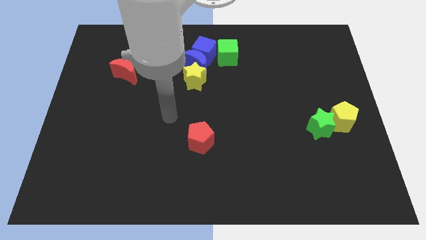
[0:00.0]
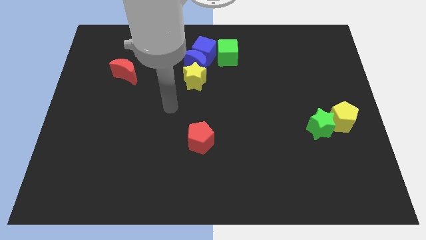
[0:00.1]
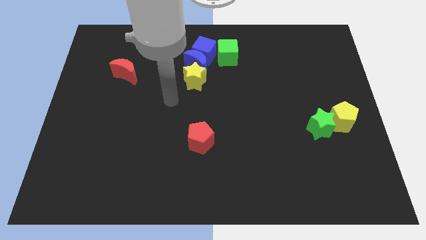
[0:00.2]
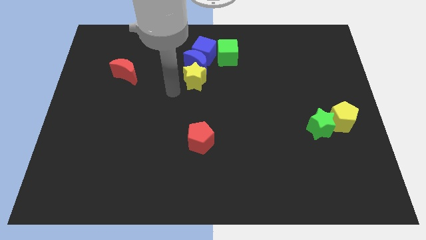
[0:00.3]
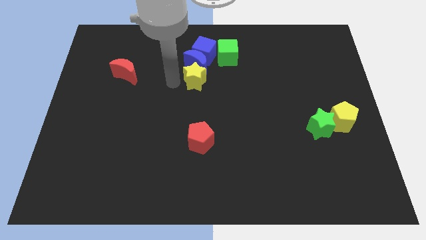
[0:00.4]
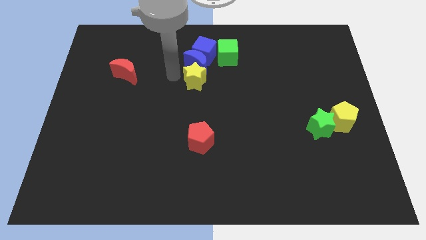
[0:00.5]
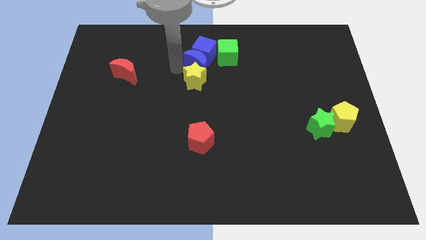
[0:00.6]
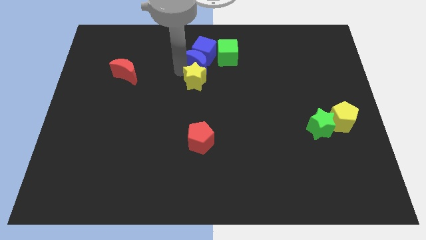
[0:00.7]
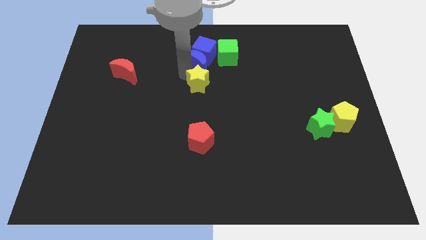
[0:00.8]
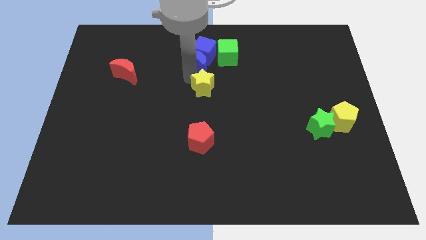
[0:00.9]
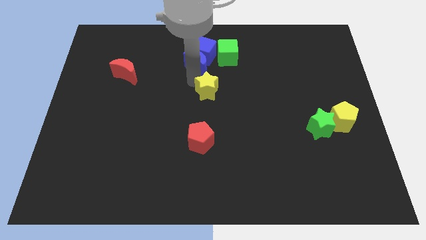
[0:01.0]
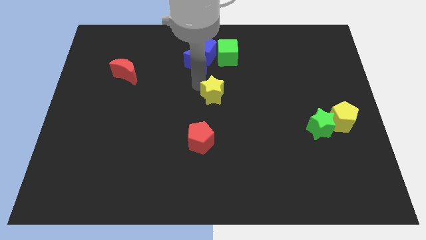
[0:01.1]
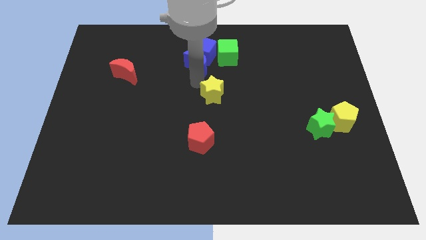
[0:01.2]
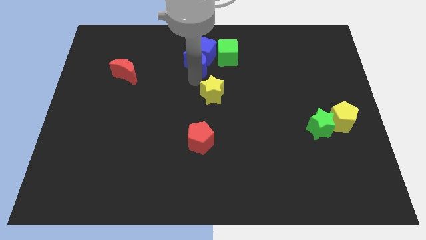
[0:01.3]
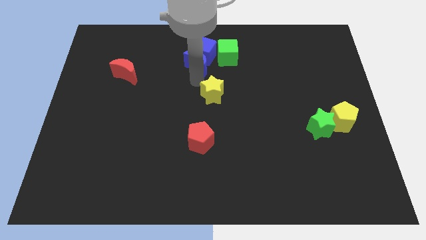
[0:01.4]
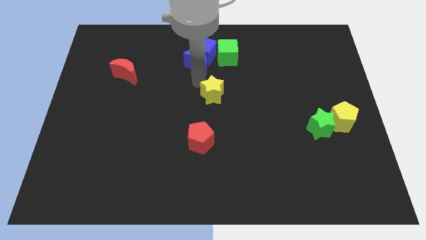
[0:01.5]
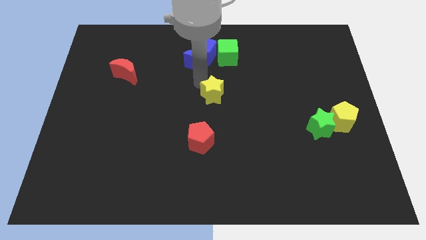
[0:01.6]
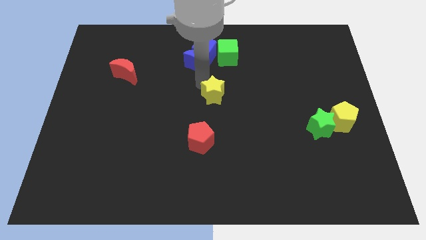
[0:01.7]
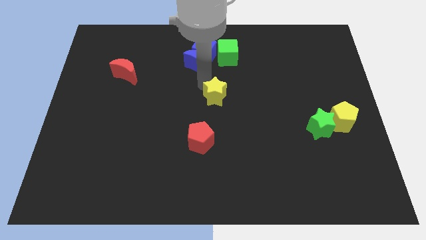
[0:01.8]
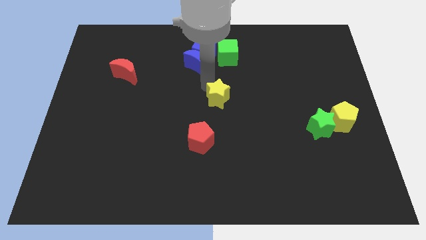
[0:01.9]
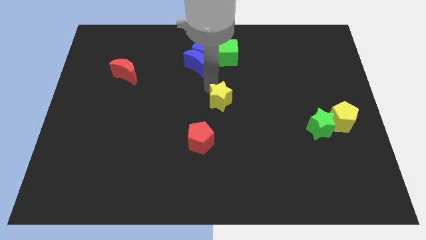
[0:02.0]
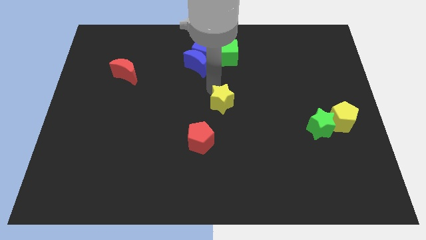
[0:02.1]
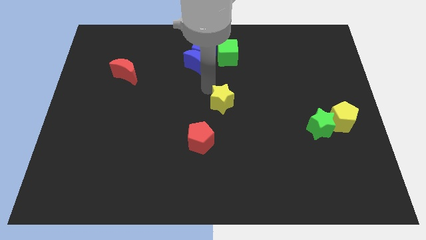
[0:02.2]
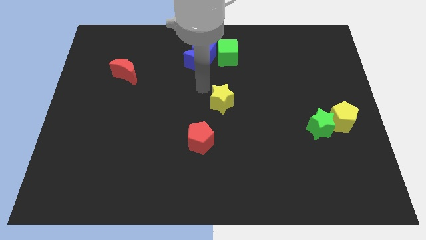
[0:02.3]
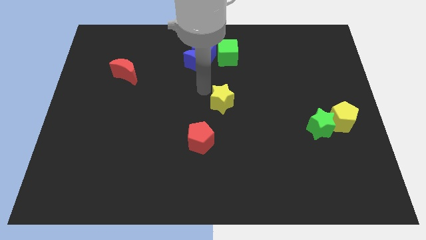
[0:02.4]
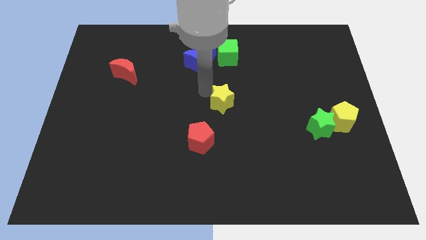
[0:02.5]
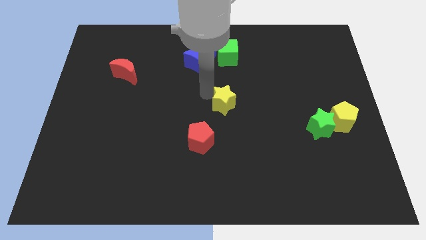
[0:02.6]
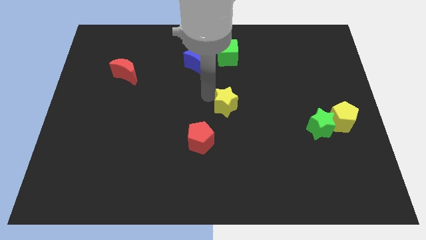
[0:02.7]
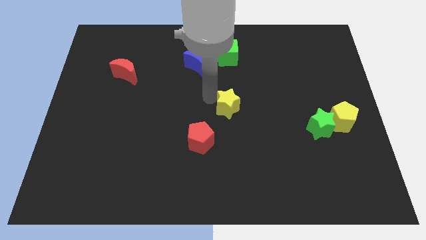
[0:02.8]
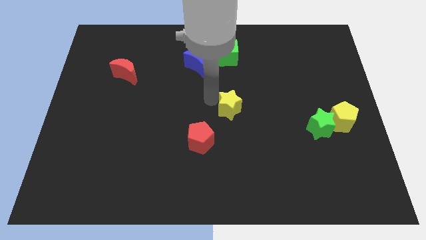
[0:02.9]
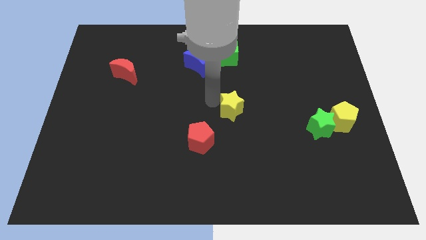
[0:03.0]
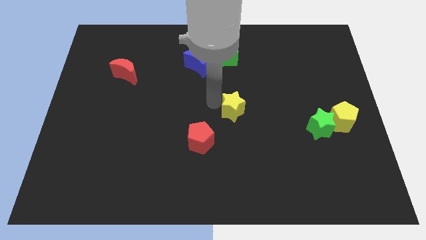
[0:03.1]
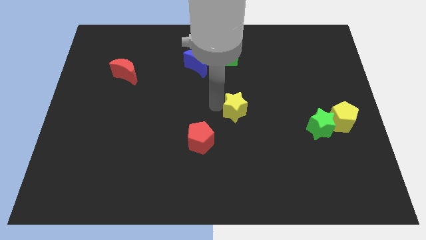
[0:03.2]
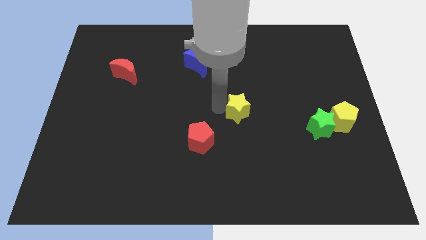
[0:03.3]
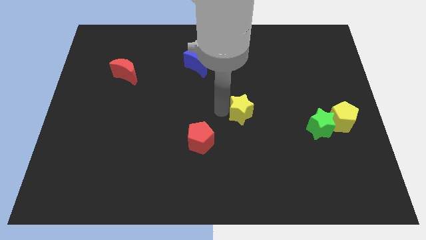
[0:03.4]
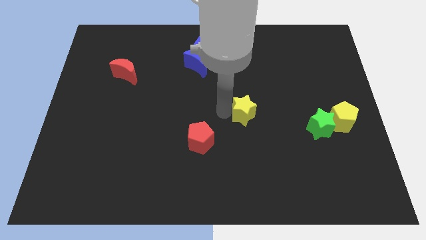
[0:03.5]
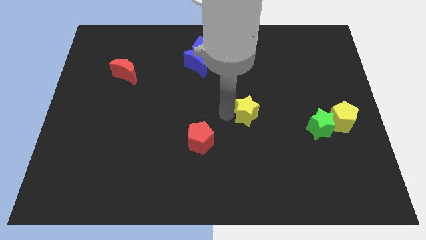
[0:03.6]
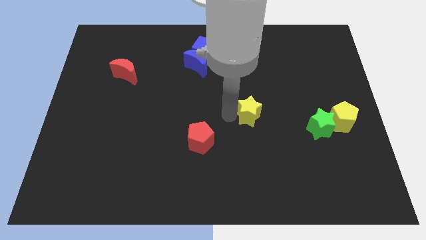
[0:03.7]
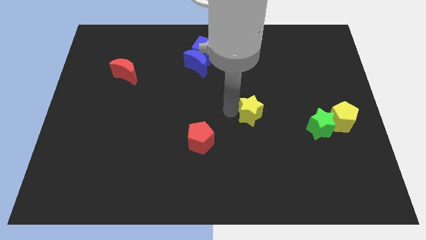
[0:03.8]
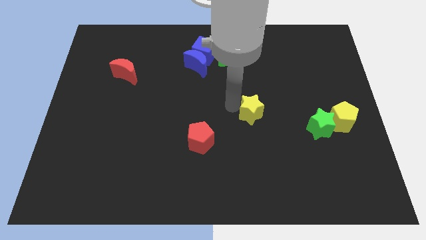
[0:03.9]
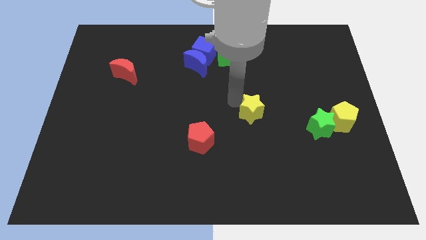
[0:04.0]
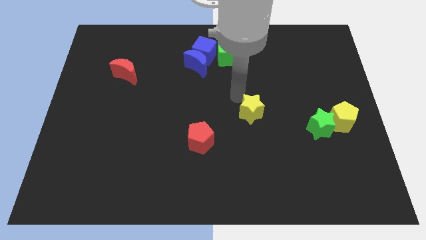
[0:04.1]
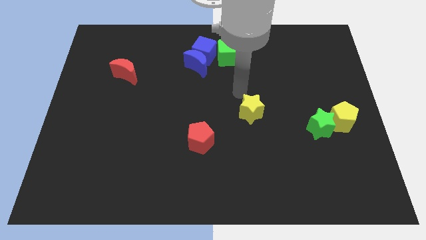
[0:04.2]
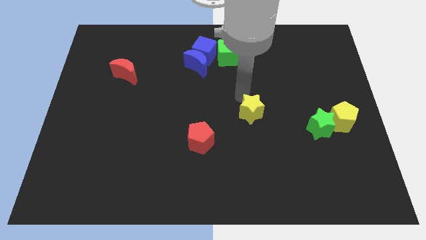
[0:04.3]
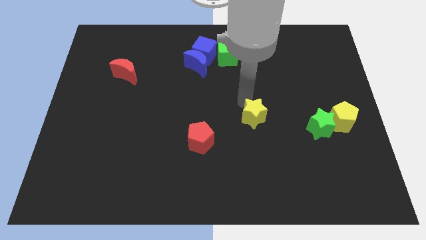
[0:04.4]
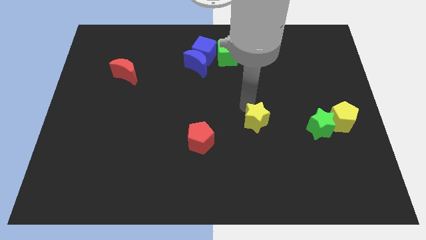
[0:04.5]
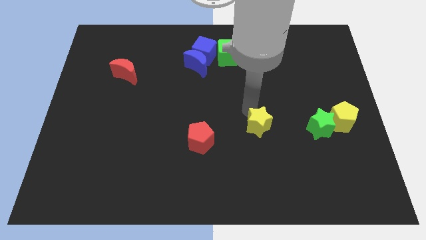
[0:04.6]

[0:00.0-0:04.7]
move the yellow star down and to the right

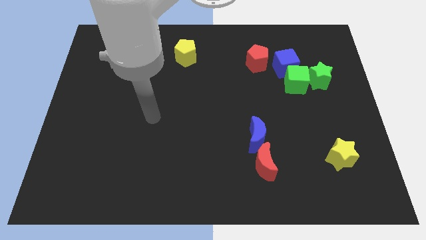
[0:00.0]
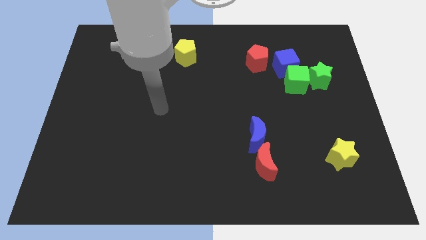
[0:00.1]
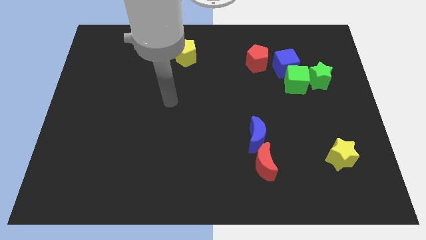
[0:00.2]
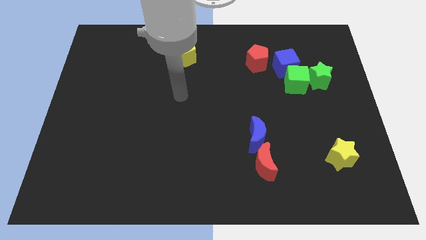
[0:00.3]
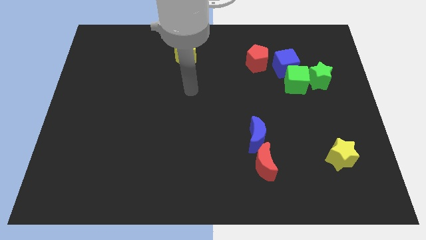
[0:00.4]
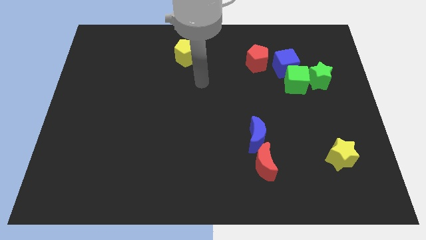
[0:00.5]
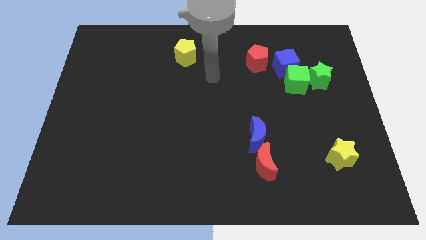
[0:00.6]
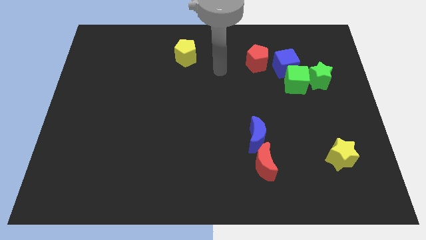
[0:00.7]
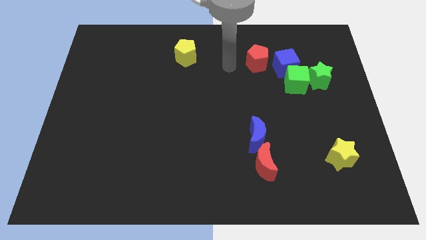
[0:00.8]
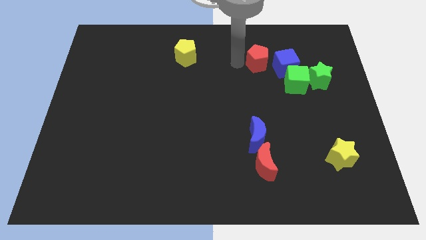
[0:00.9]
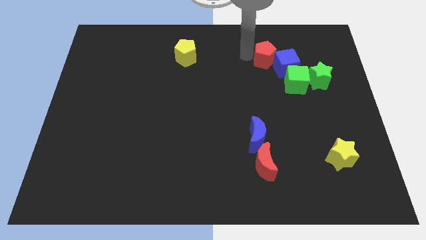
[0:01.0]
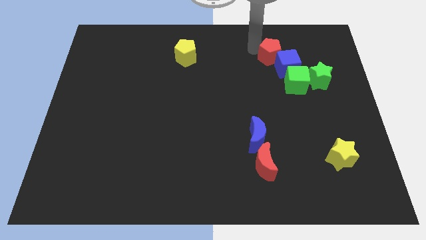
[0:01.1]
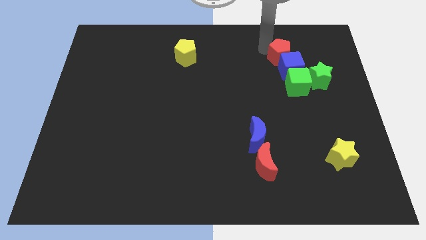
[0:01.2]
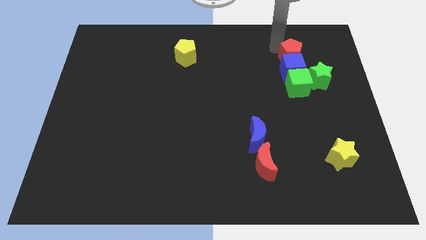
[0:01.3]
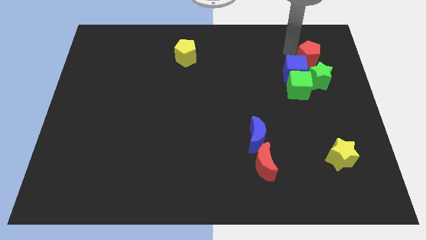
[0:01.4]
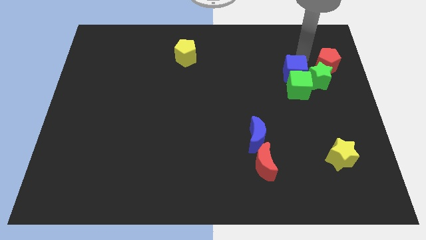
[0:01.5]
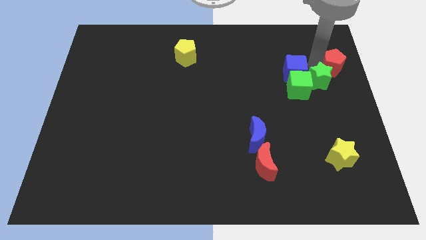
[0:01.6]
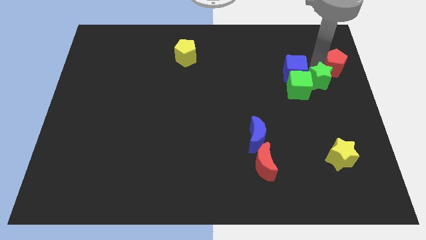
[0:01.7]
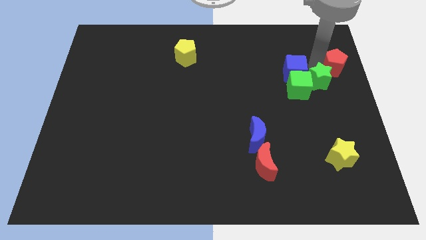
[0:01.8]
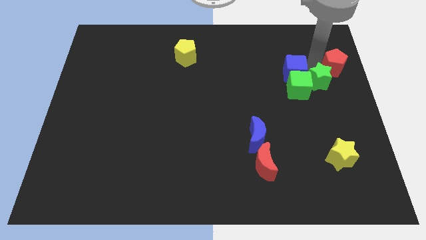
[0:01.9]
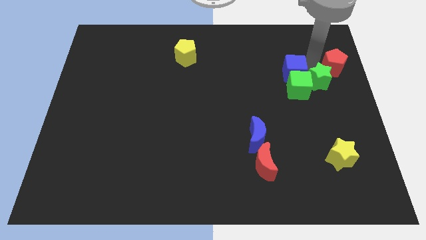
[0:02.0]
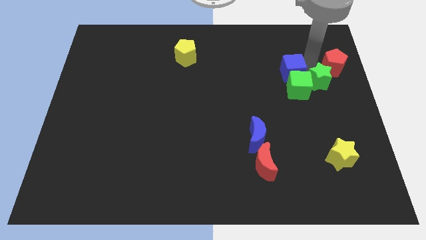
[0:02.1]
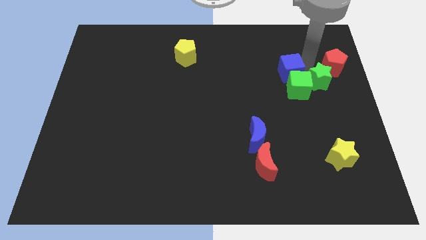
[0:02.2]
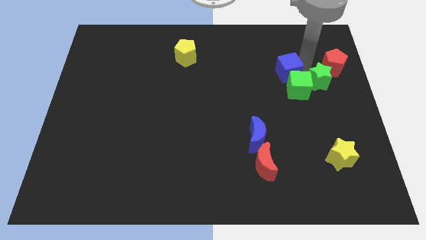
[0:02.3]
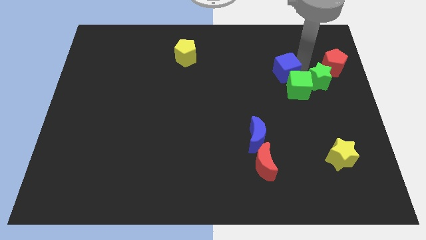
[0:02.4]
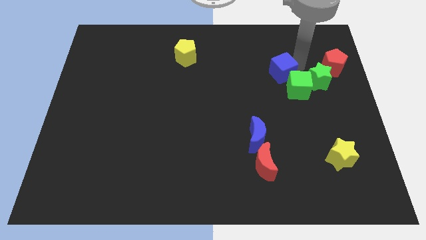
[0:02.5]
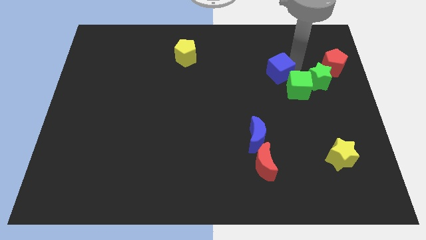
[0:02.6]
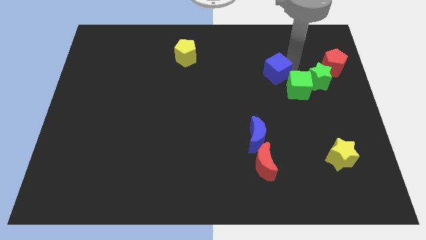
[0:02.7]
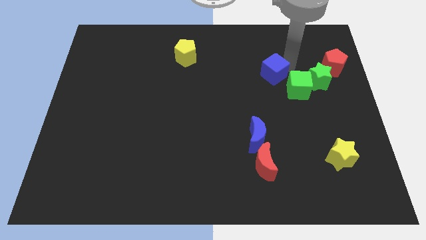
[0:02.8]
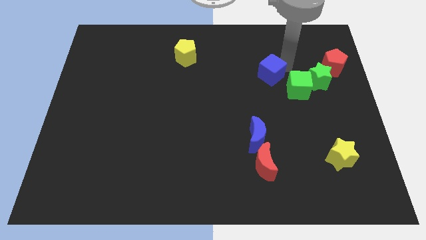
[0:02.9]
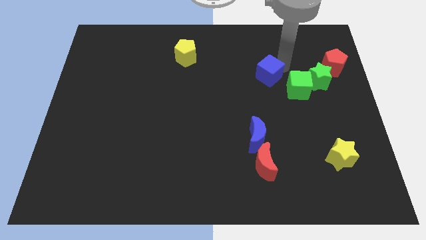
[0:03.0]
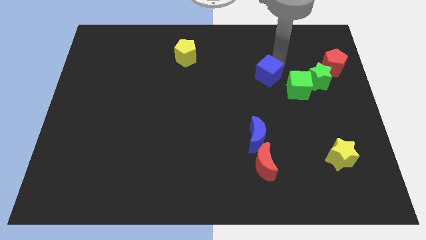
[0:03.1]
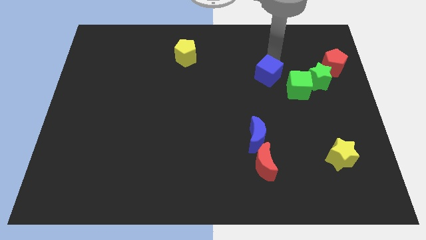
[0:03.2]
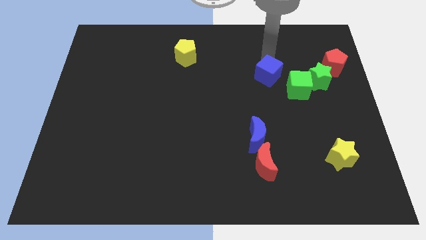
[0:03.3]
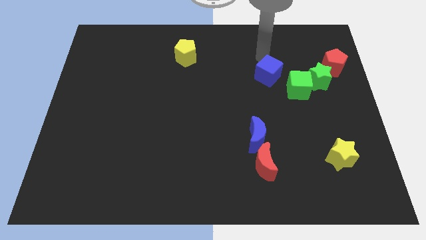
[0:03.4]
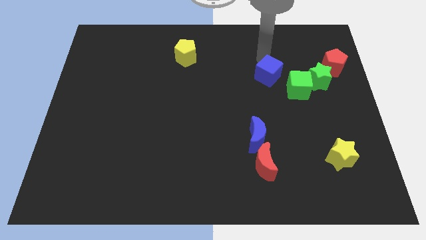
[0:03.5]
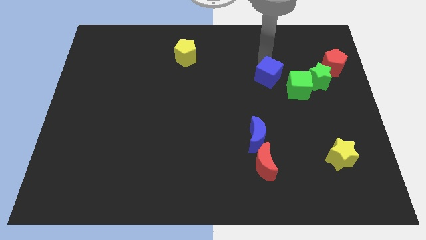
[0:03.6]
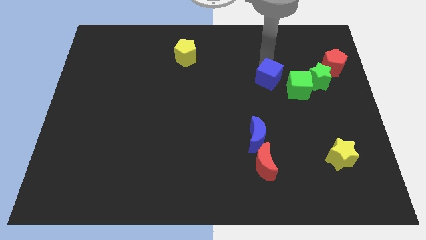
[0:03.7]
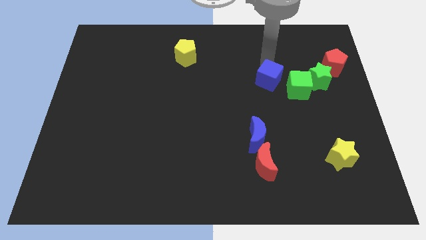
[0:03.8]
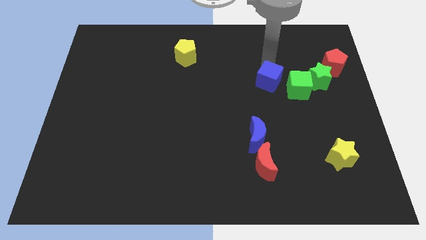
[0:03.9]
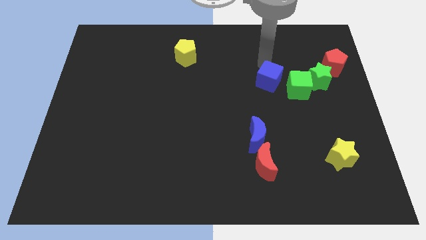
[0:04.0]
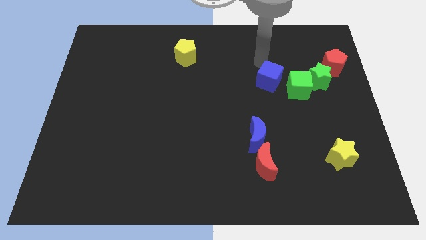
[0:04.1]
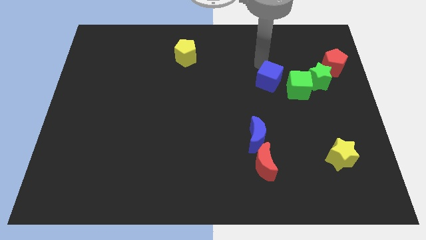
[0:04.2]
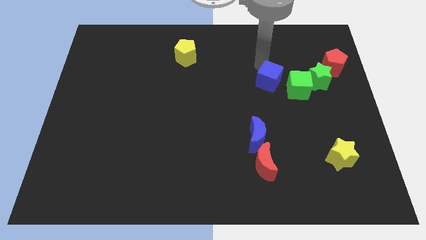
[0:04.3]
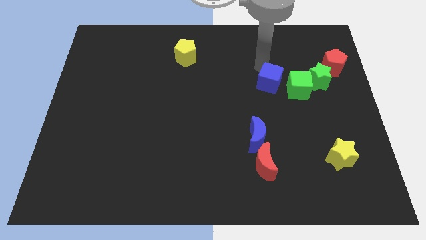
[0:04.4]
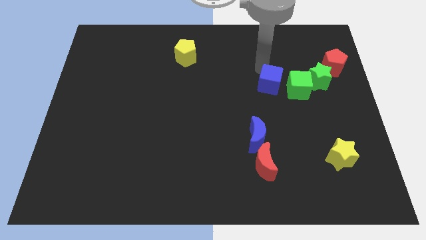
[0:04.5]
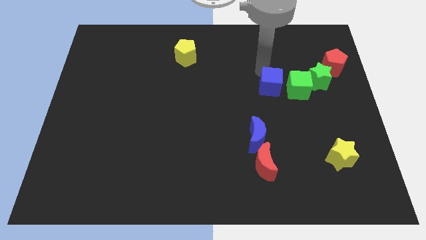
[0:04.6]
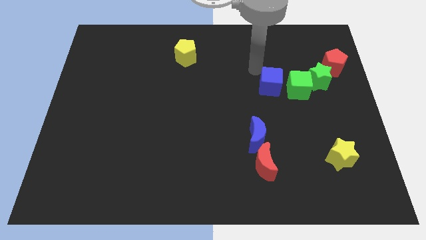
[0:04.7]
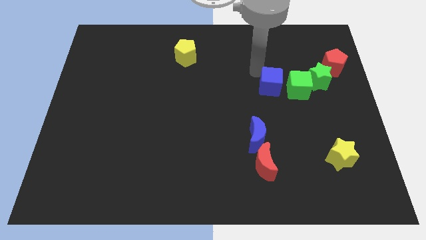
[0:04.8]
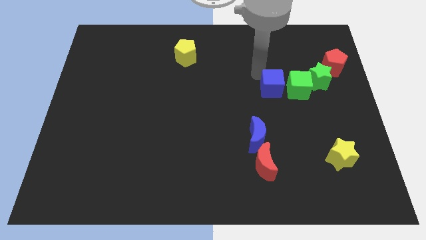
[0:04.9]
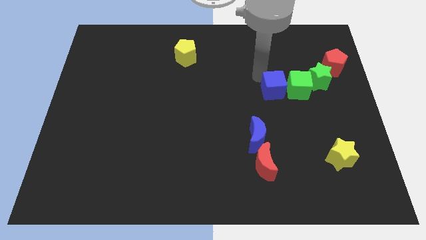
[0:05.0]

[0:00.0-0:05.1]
slightly slide the blue cube down
